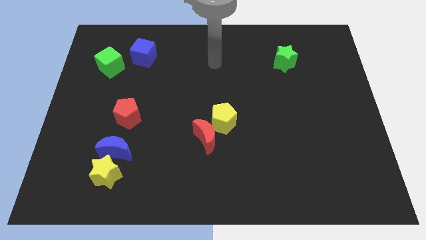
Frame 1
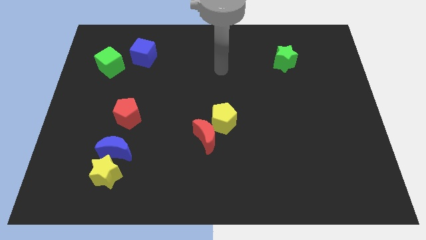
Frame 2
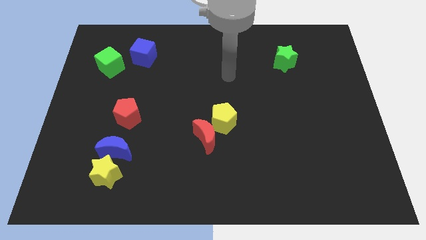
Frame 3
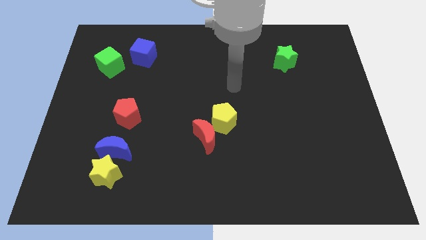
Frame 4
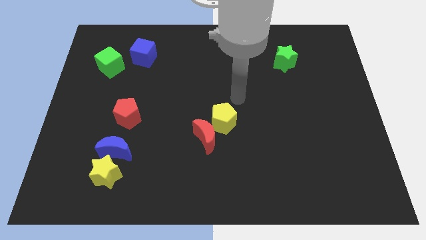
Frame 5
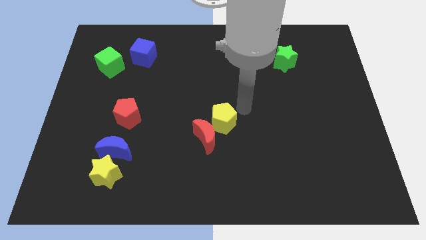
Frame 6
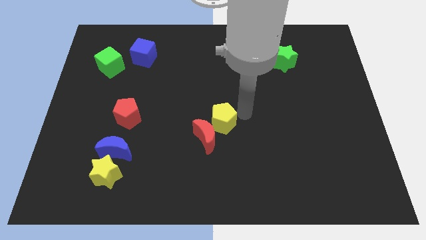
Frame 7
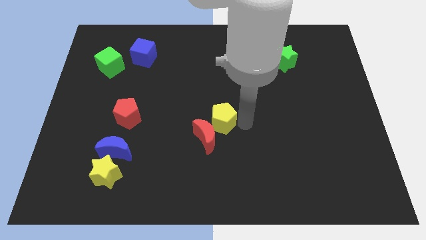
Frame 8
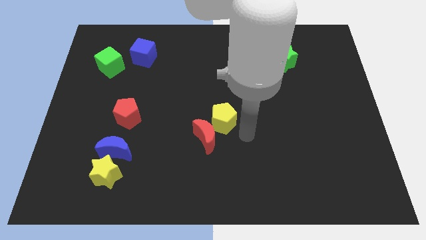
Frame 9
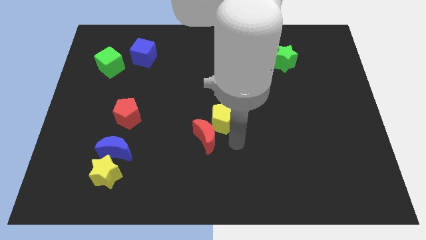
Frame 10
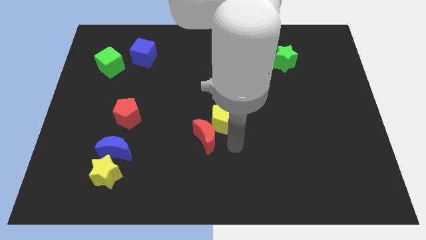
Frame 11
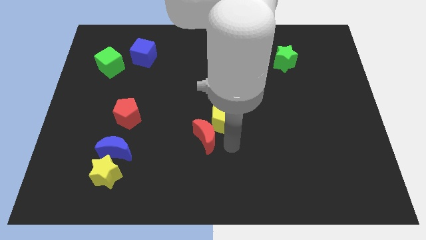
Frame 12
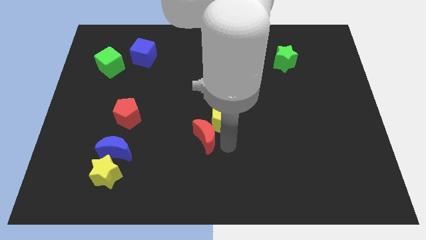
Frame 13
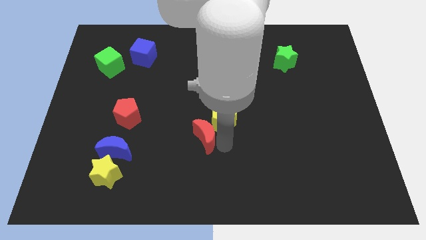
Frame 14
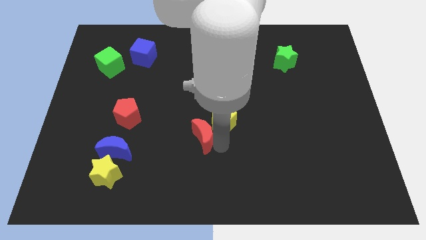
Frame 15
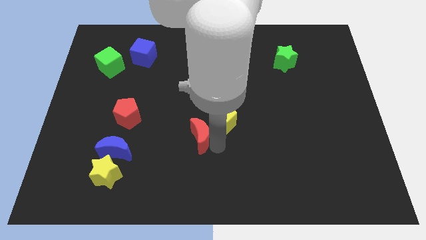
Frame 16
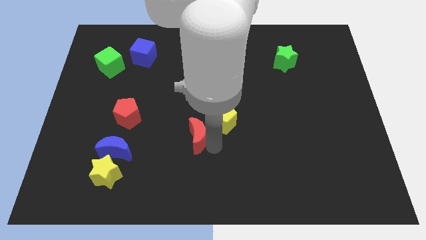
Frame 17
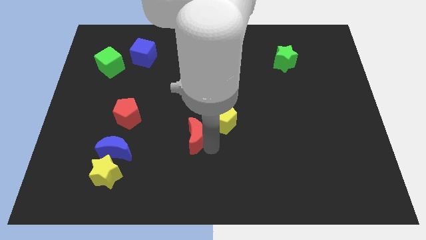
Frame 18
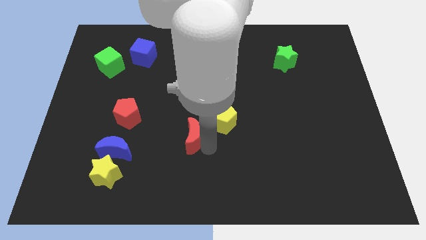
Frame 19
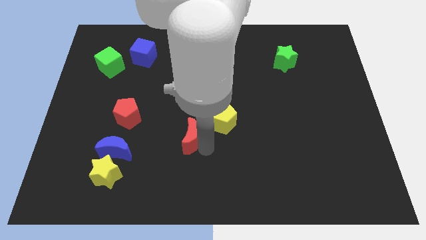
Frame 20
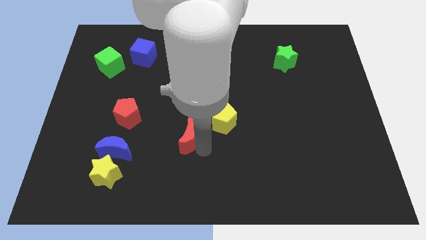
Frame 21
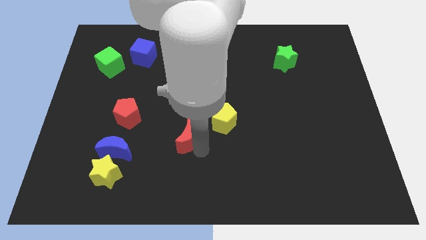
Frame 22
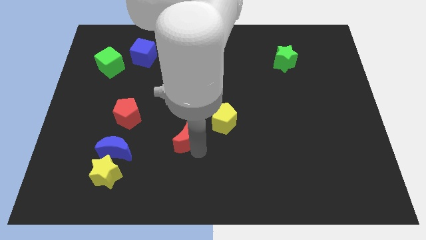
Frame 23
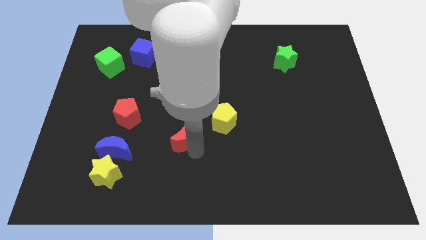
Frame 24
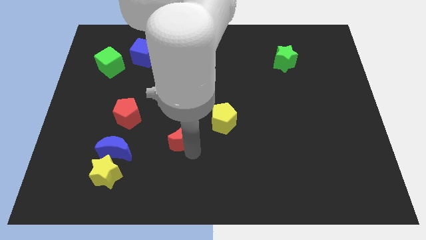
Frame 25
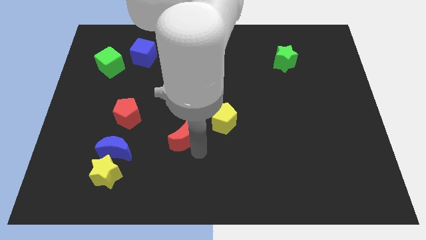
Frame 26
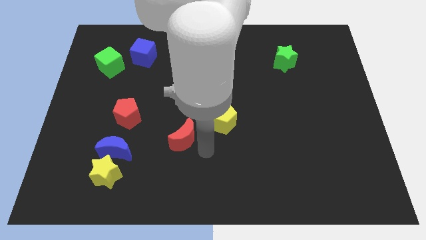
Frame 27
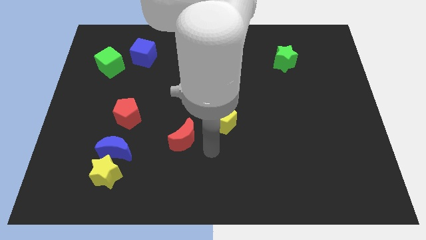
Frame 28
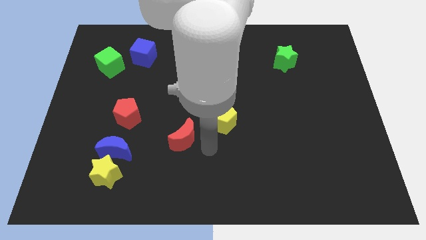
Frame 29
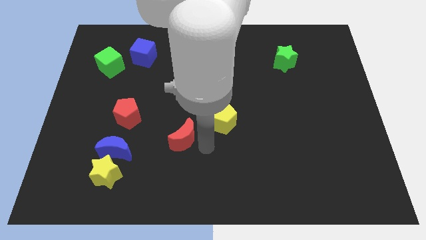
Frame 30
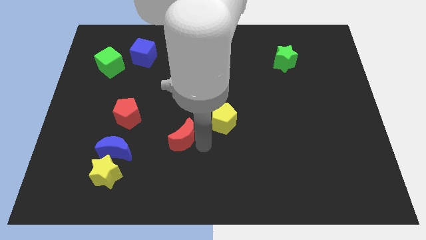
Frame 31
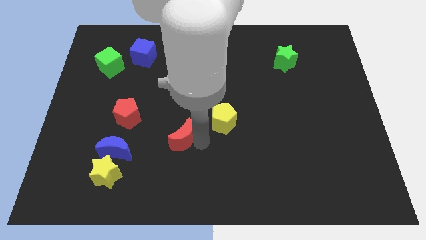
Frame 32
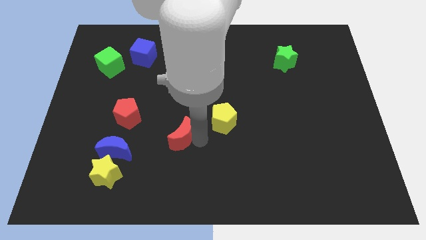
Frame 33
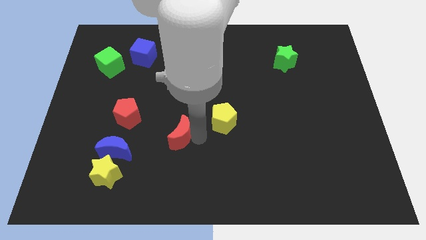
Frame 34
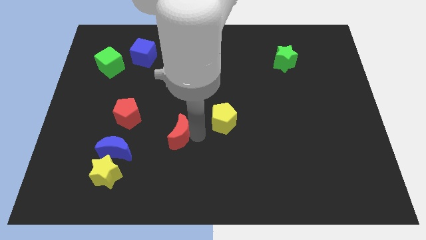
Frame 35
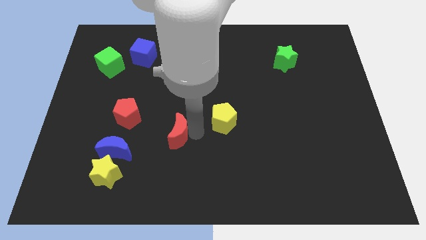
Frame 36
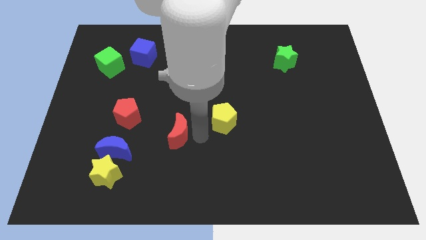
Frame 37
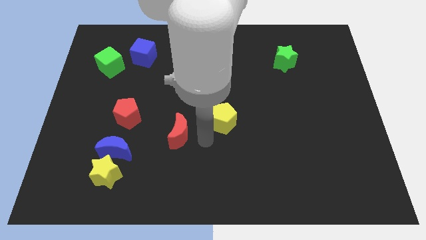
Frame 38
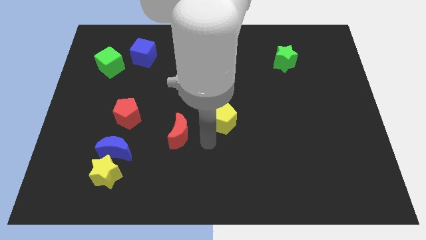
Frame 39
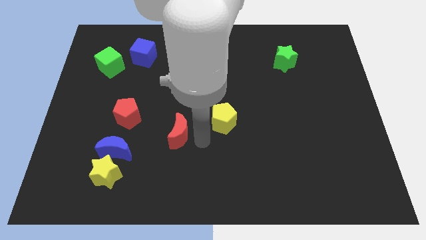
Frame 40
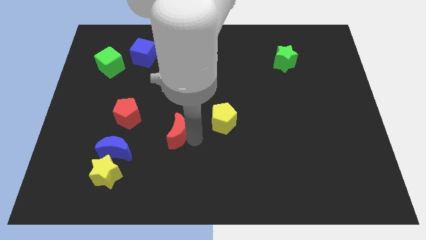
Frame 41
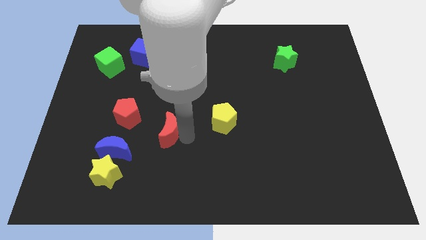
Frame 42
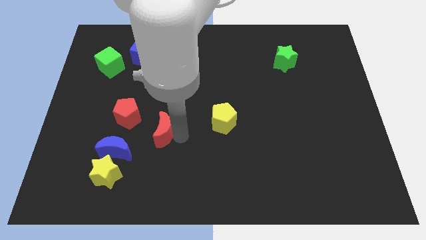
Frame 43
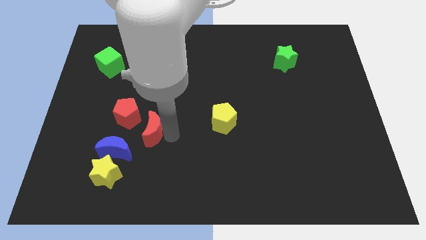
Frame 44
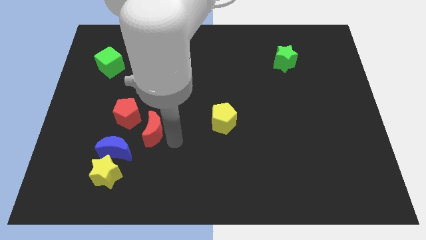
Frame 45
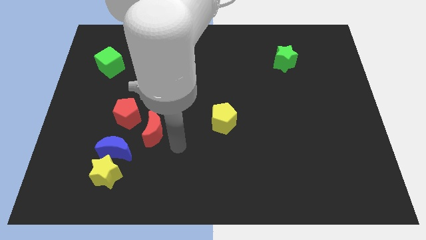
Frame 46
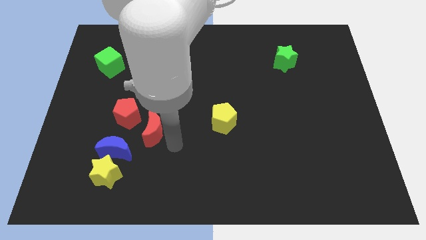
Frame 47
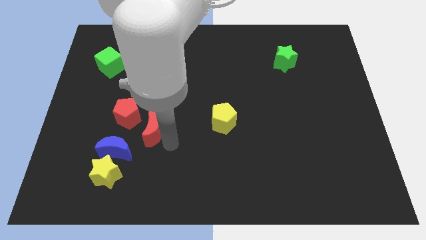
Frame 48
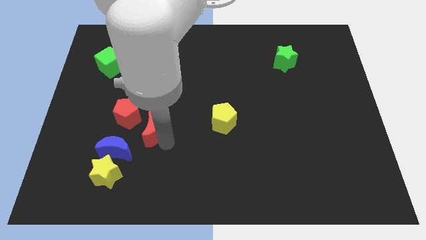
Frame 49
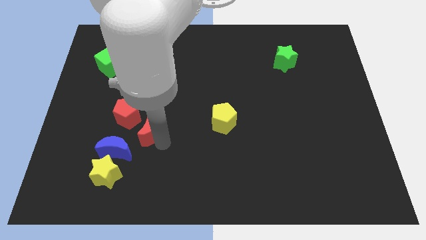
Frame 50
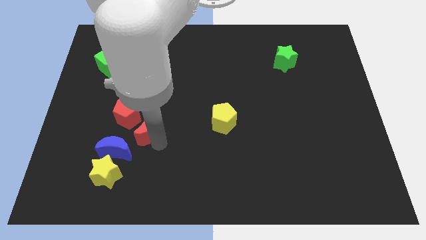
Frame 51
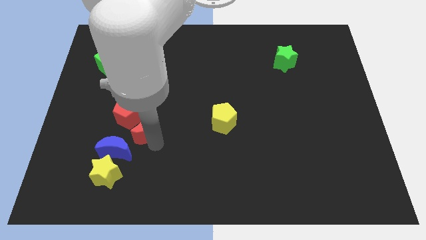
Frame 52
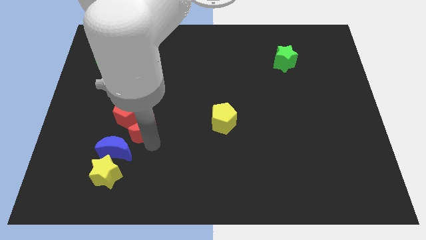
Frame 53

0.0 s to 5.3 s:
push the red moon towards the red pentagon

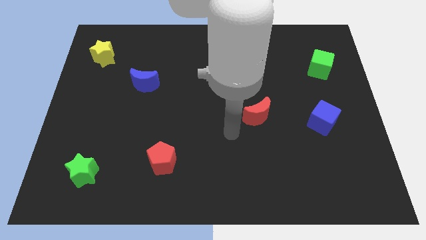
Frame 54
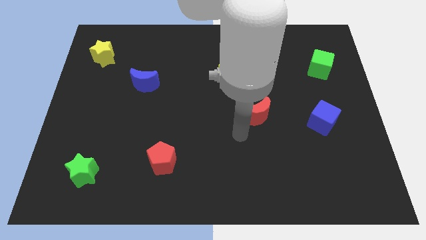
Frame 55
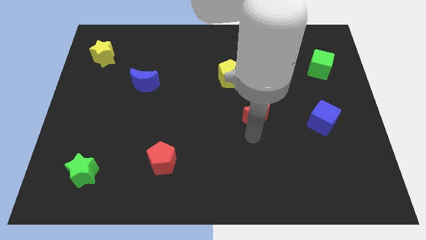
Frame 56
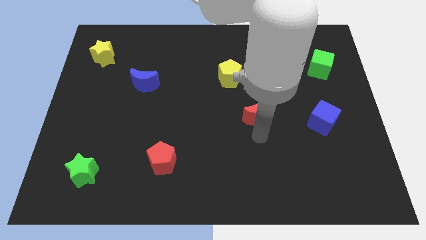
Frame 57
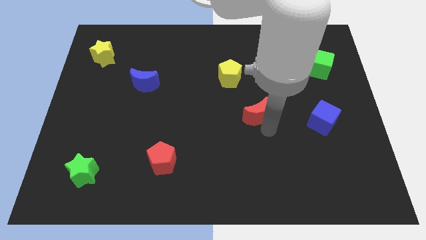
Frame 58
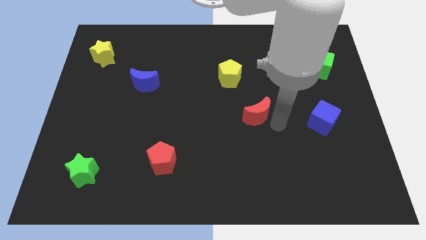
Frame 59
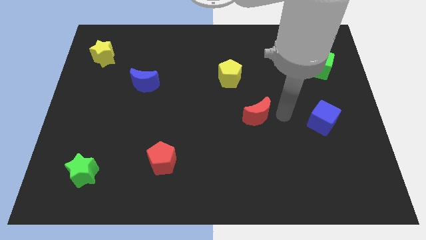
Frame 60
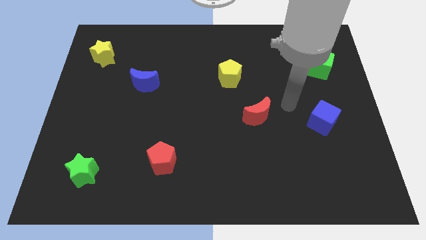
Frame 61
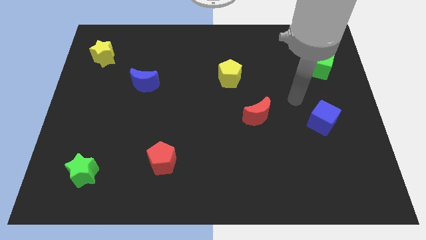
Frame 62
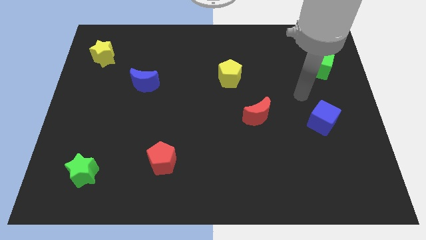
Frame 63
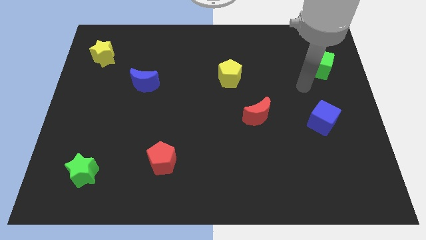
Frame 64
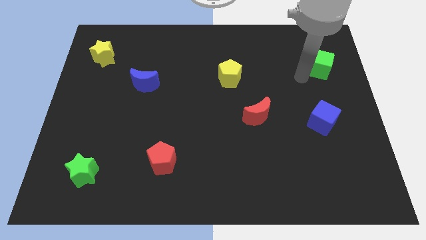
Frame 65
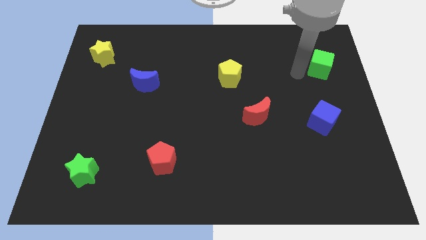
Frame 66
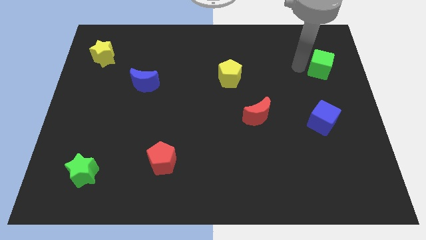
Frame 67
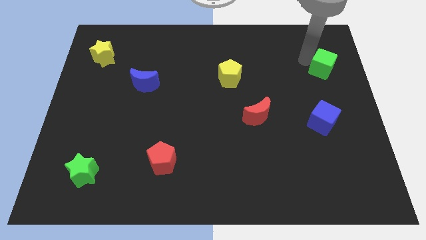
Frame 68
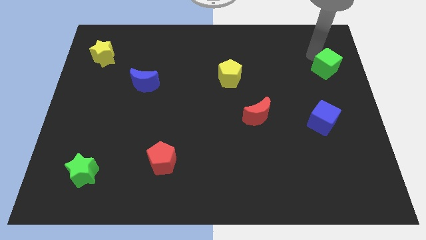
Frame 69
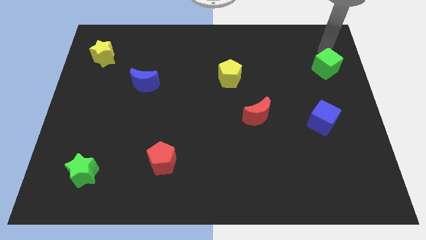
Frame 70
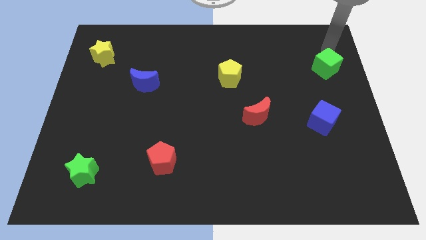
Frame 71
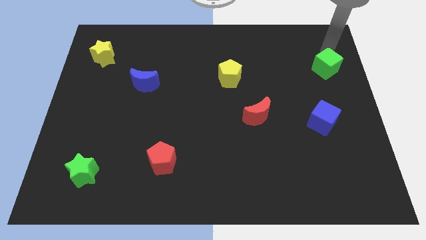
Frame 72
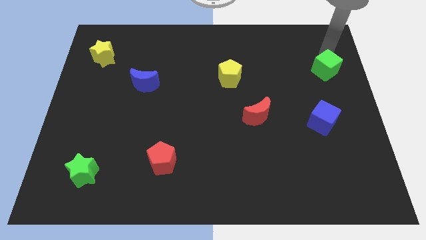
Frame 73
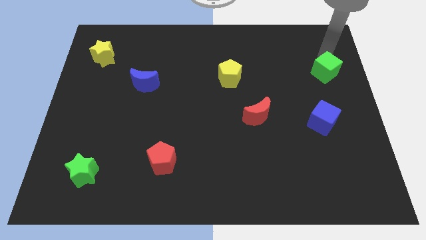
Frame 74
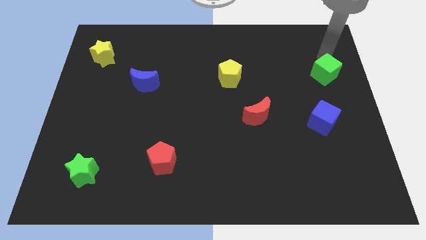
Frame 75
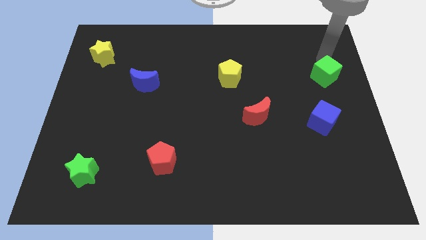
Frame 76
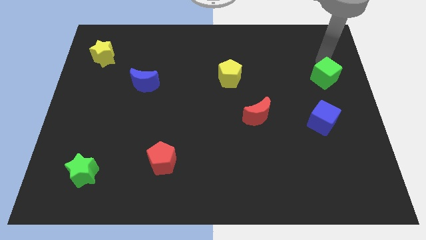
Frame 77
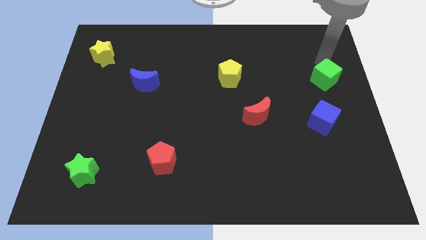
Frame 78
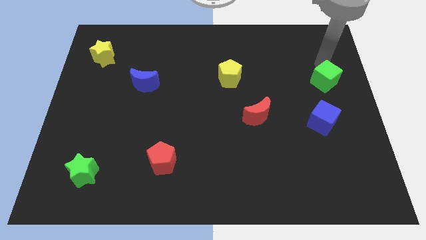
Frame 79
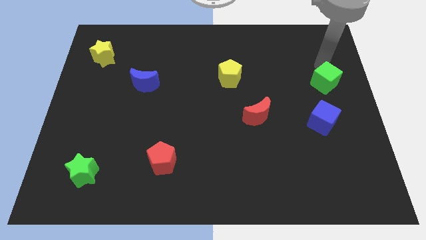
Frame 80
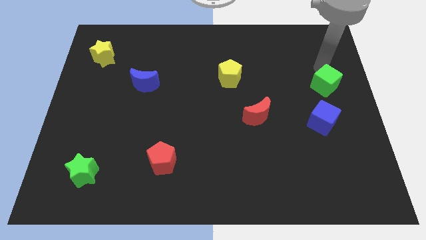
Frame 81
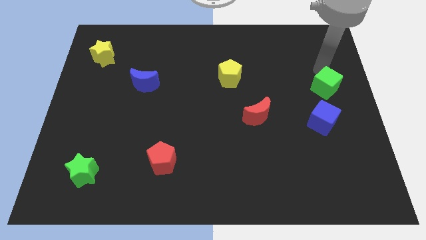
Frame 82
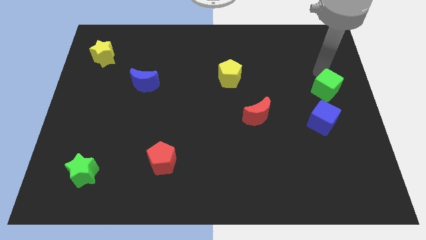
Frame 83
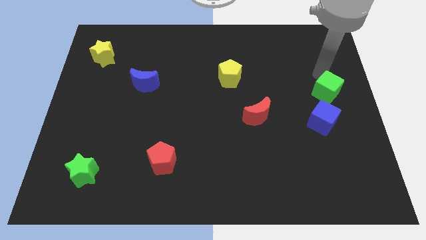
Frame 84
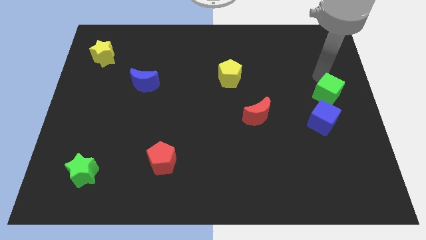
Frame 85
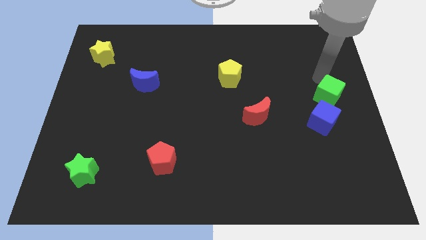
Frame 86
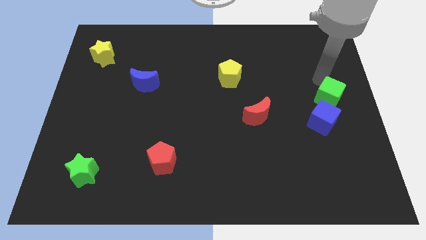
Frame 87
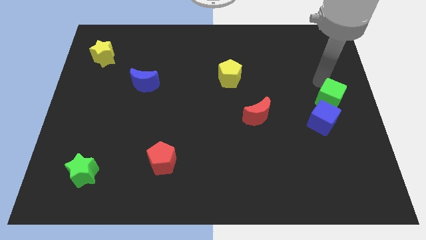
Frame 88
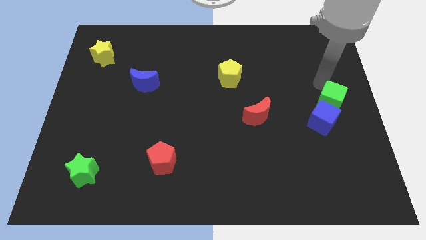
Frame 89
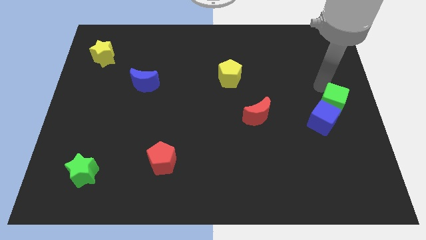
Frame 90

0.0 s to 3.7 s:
push the green cube next to the blue cube
